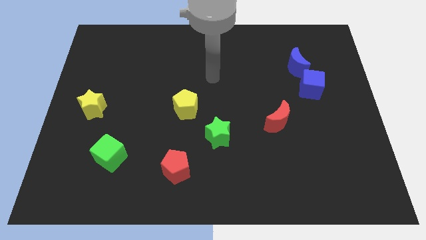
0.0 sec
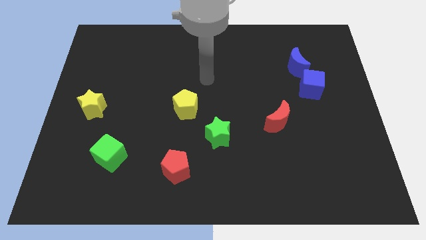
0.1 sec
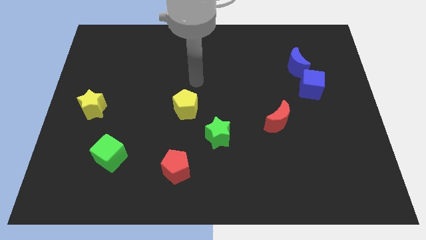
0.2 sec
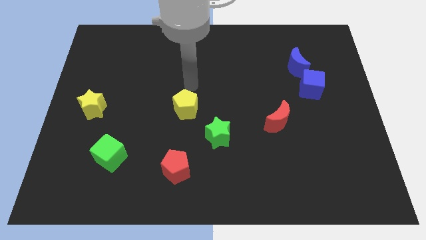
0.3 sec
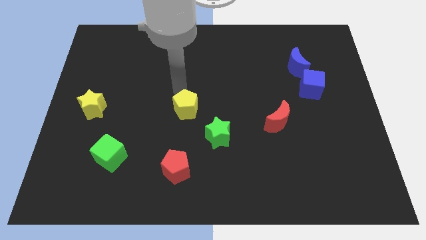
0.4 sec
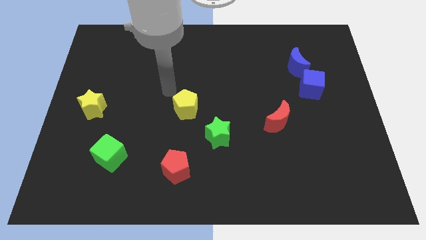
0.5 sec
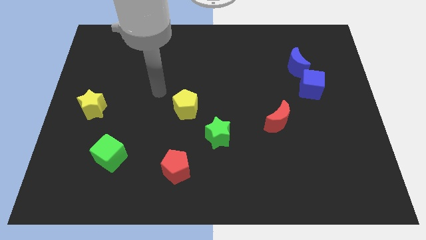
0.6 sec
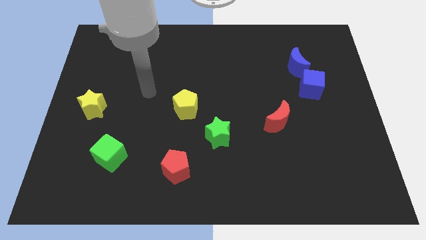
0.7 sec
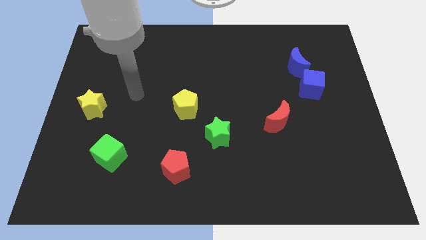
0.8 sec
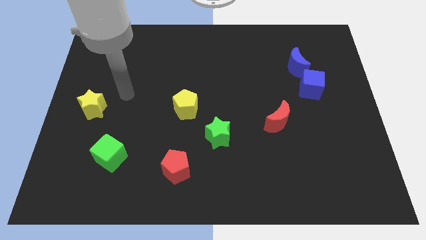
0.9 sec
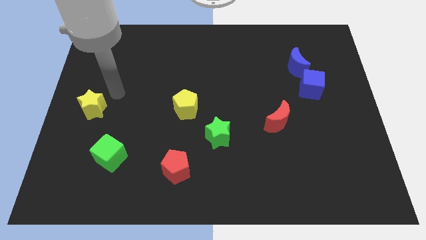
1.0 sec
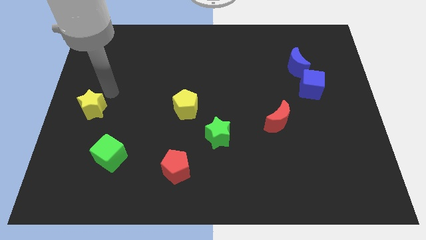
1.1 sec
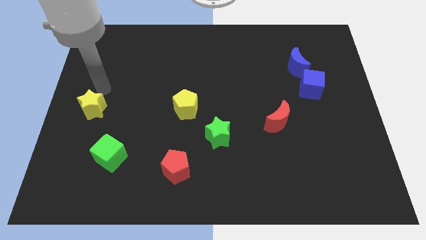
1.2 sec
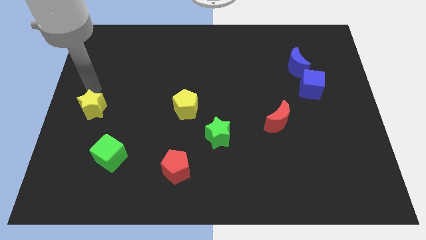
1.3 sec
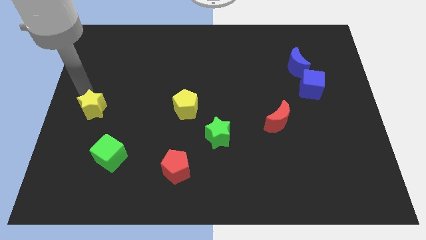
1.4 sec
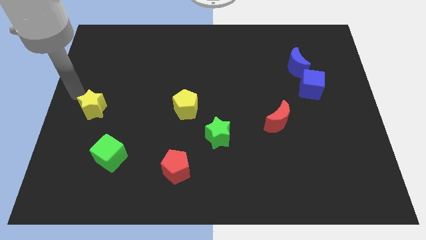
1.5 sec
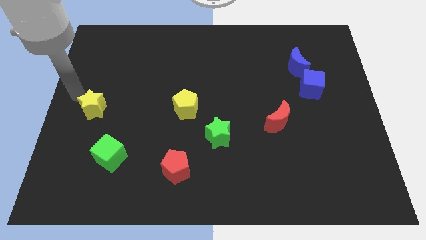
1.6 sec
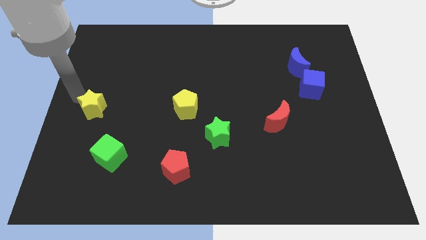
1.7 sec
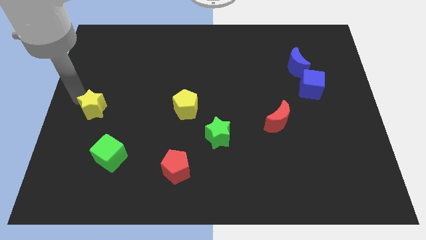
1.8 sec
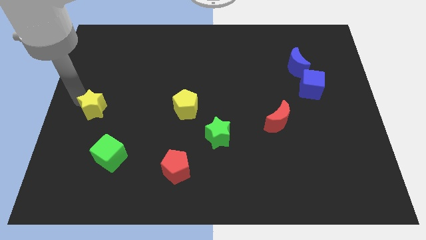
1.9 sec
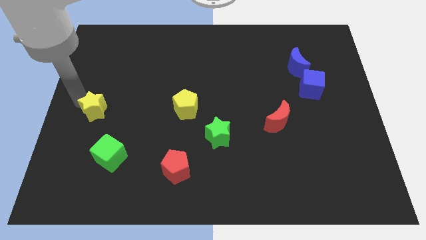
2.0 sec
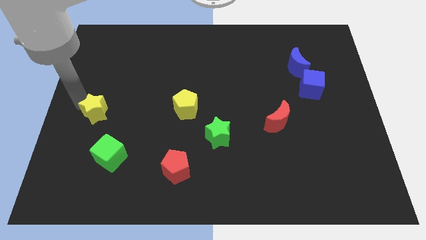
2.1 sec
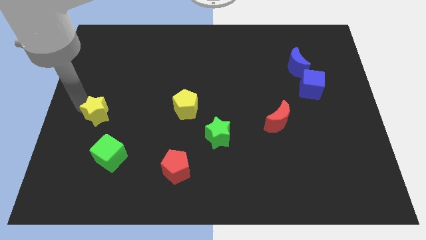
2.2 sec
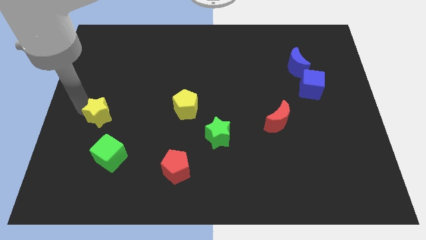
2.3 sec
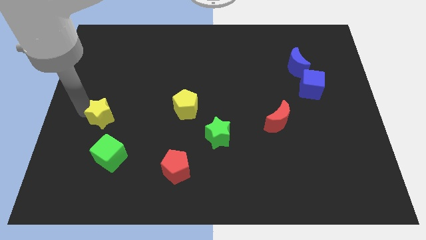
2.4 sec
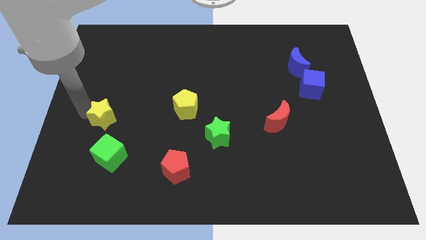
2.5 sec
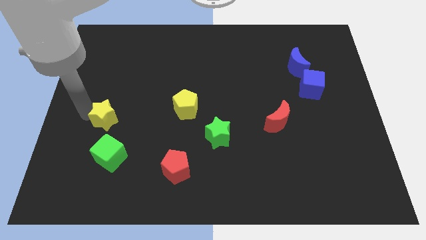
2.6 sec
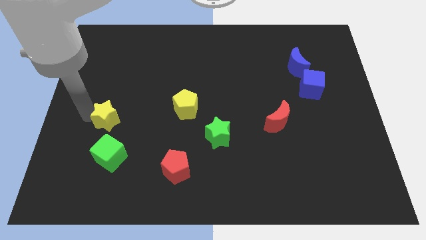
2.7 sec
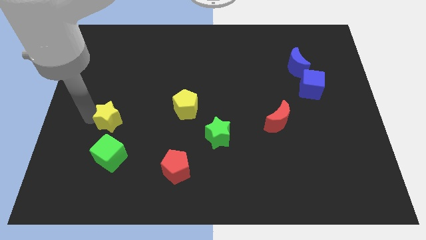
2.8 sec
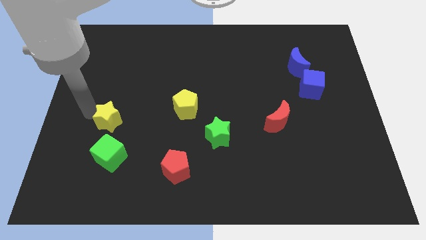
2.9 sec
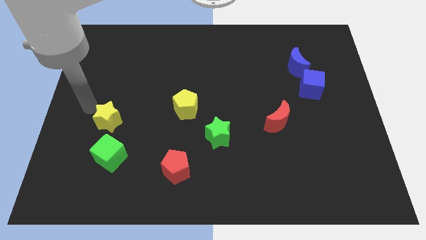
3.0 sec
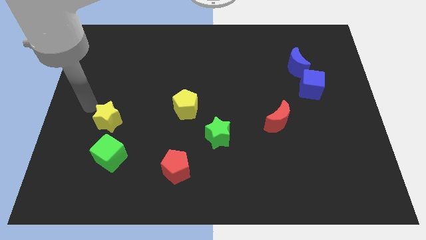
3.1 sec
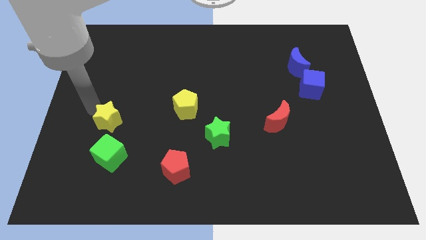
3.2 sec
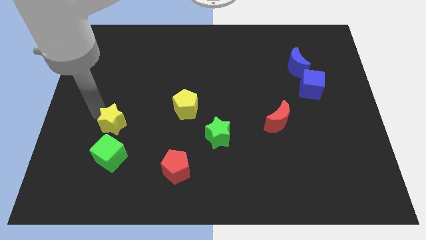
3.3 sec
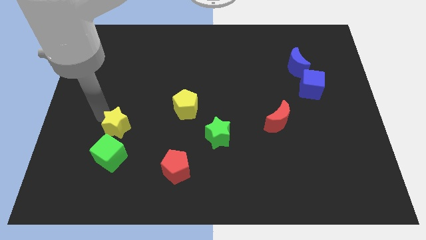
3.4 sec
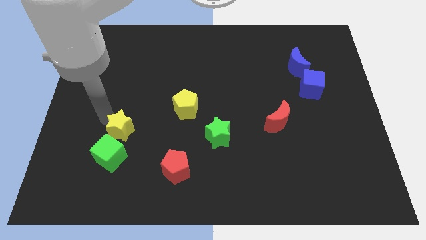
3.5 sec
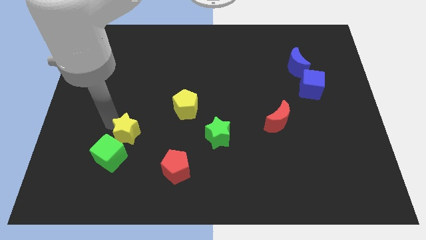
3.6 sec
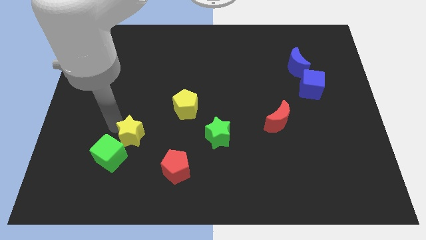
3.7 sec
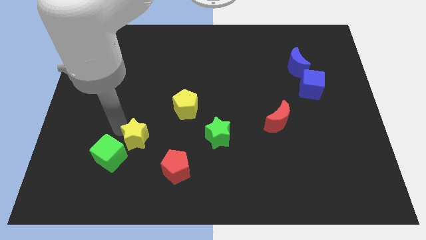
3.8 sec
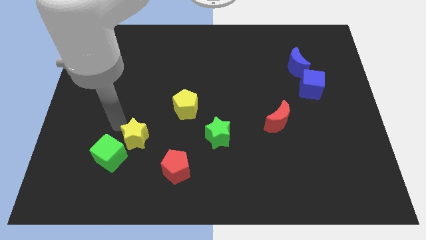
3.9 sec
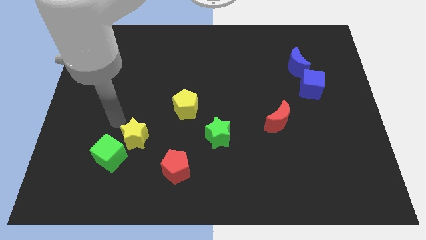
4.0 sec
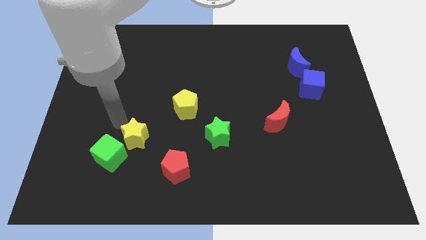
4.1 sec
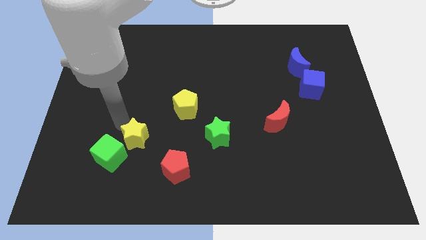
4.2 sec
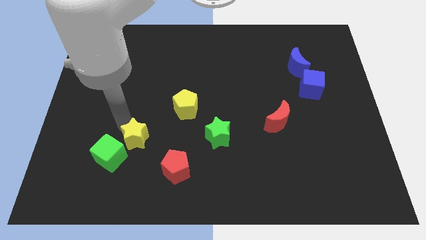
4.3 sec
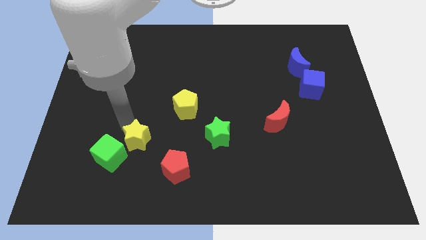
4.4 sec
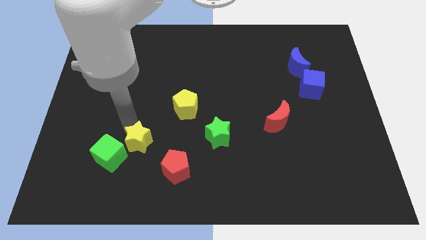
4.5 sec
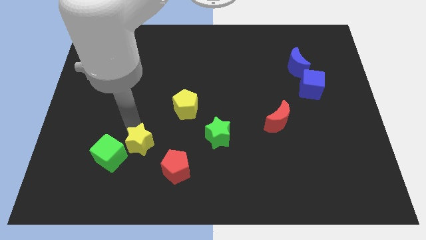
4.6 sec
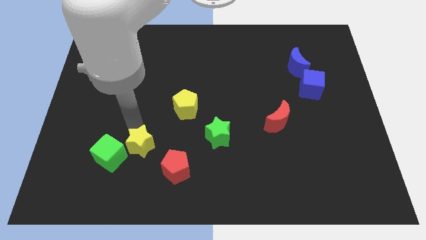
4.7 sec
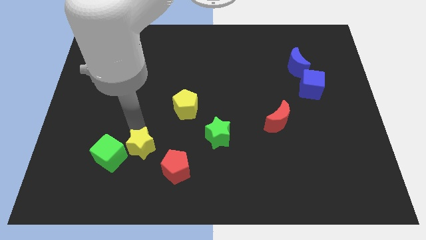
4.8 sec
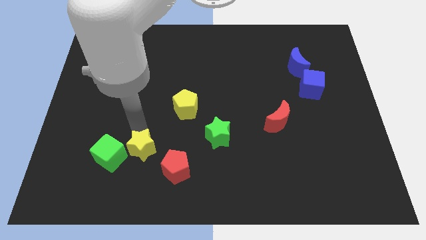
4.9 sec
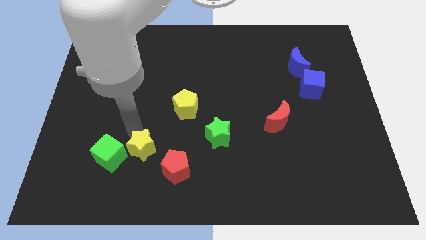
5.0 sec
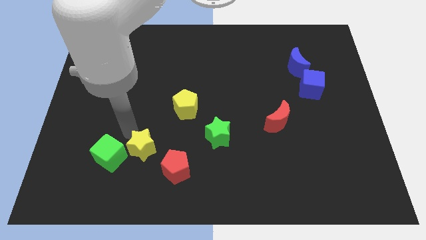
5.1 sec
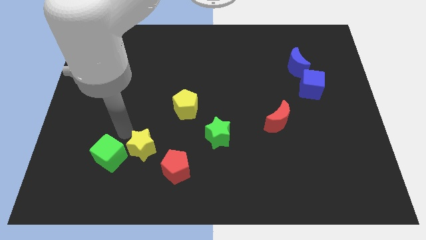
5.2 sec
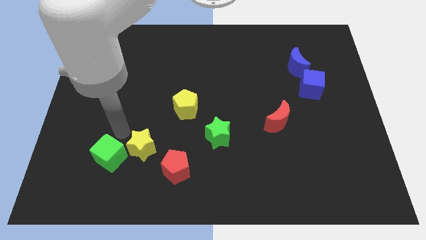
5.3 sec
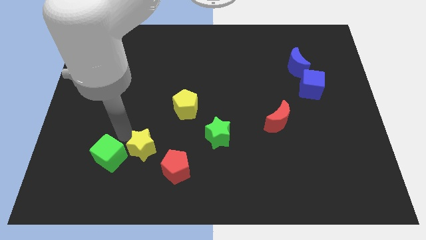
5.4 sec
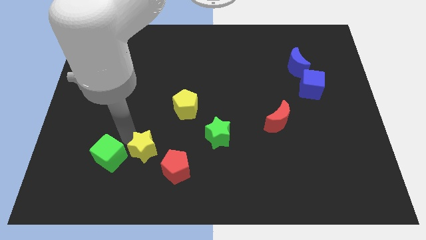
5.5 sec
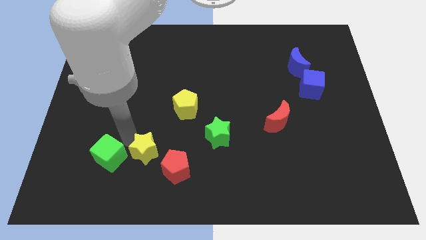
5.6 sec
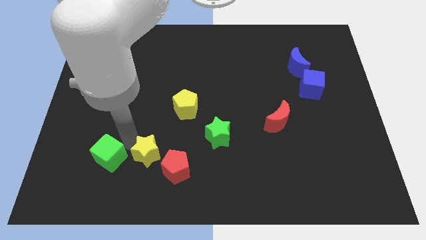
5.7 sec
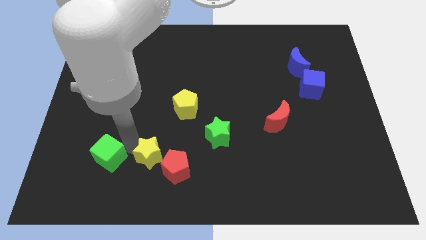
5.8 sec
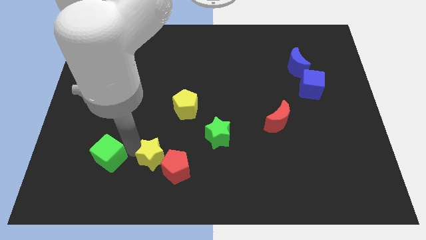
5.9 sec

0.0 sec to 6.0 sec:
put the yellow star to the red pentagon

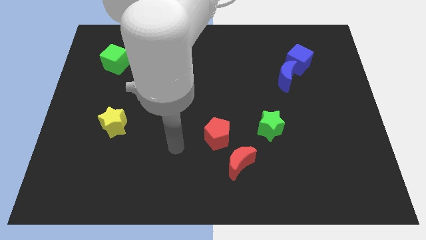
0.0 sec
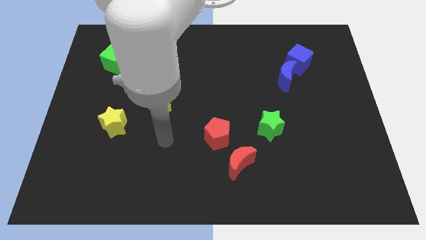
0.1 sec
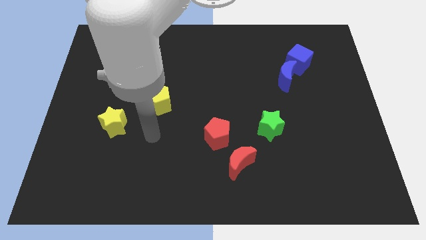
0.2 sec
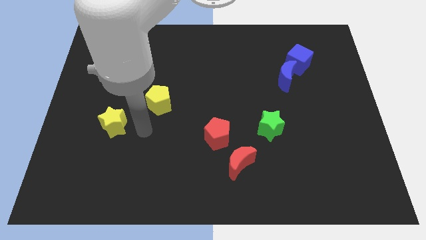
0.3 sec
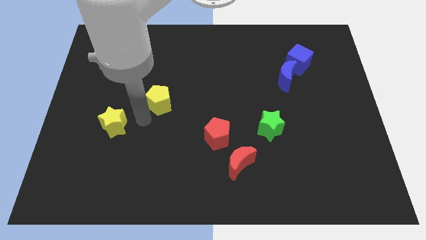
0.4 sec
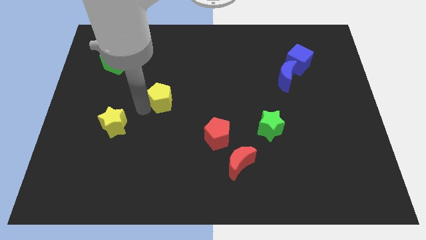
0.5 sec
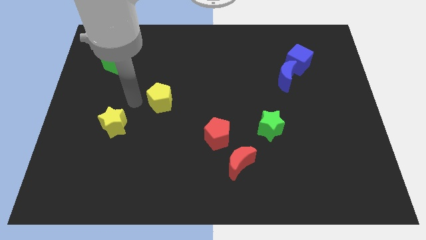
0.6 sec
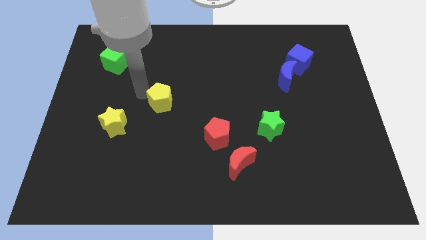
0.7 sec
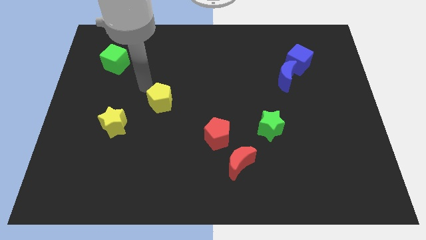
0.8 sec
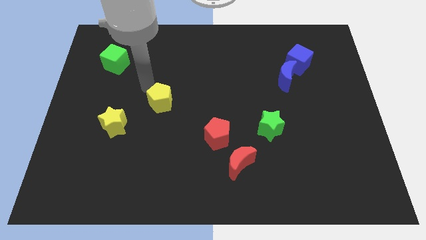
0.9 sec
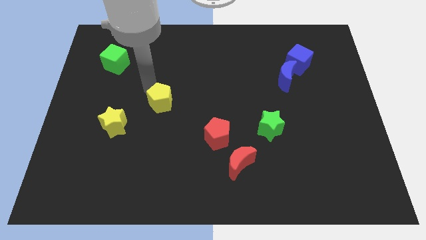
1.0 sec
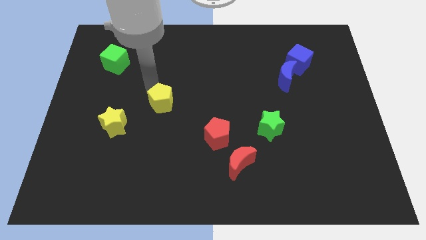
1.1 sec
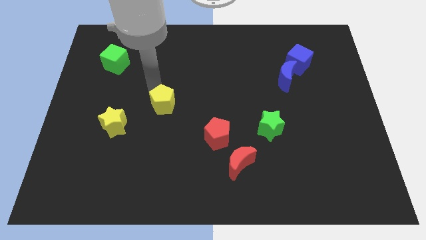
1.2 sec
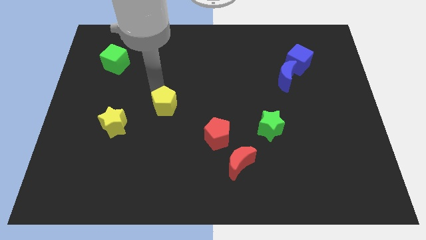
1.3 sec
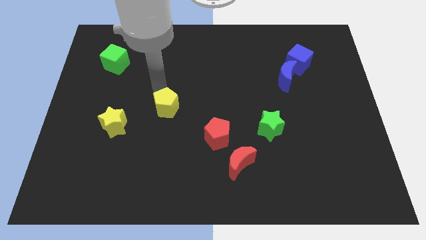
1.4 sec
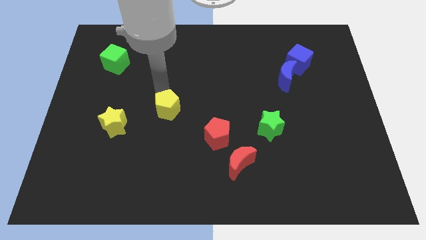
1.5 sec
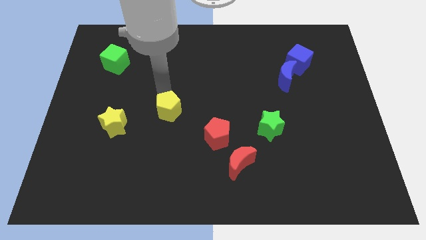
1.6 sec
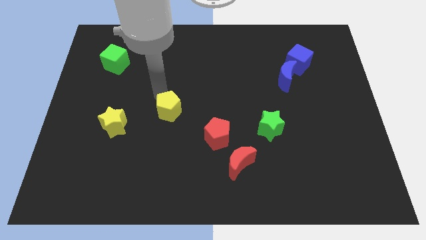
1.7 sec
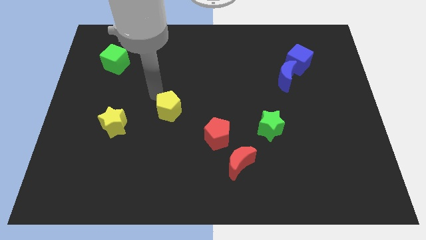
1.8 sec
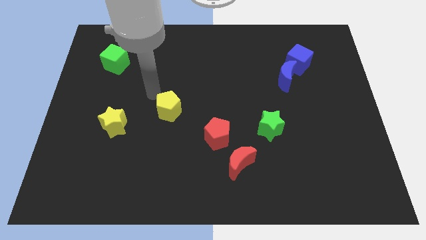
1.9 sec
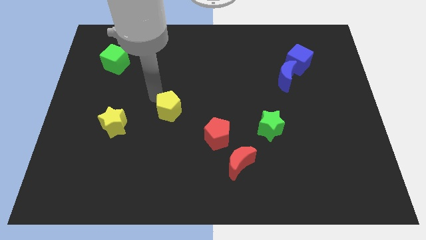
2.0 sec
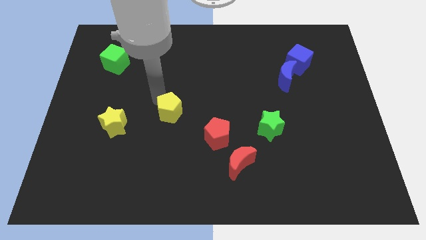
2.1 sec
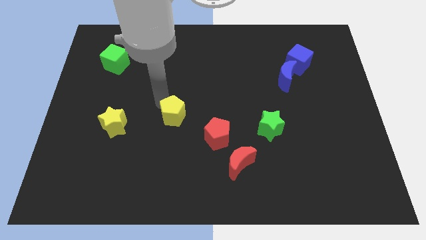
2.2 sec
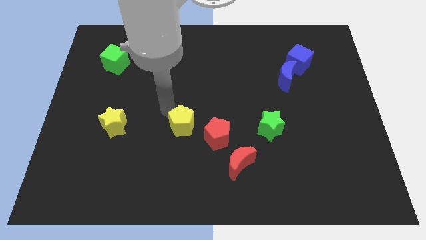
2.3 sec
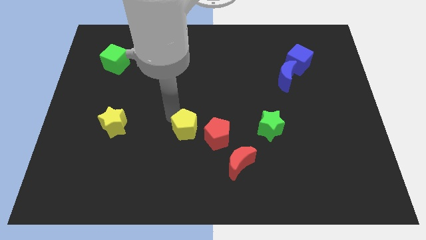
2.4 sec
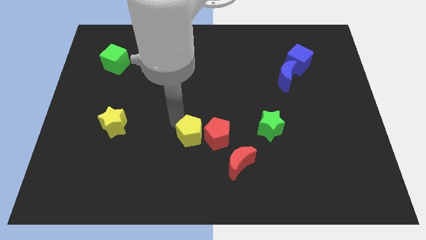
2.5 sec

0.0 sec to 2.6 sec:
move the yellow pentagon to the red pentagon
